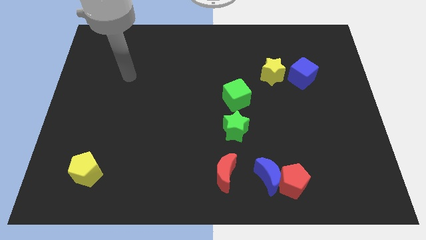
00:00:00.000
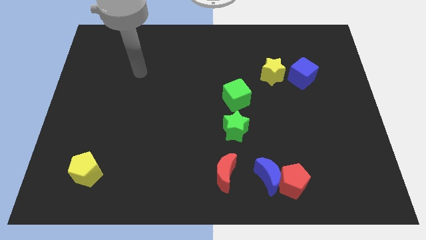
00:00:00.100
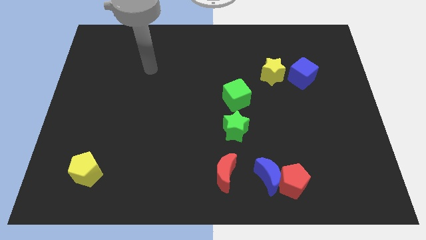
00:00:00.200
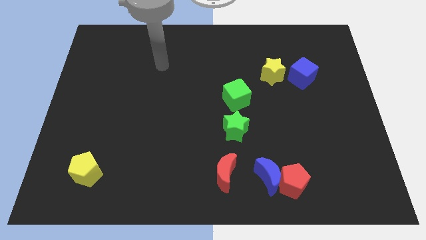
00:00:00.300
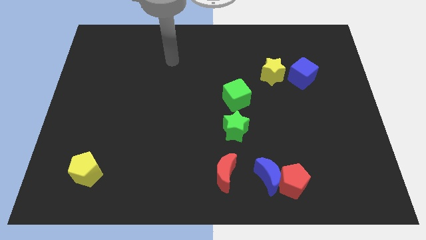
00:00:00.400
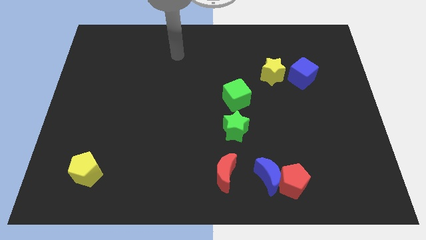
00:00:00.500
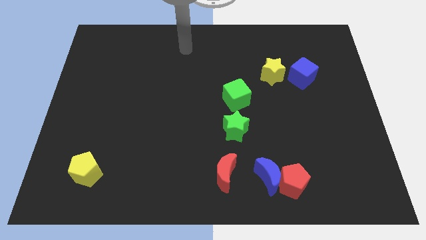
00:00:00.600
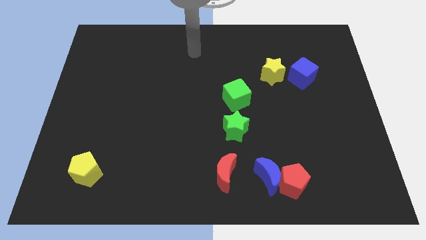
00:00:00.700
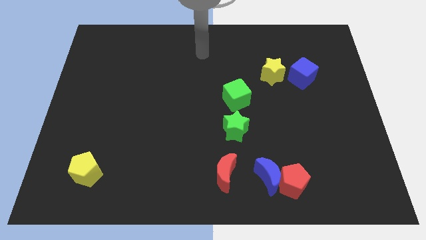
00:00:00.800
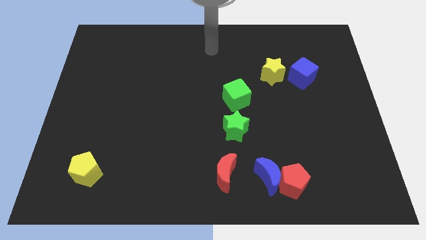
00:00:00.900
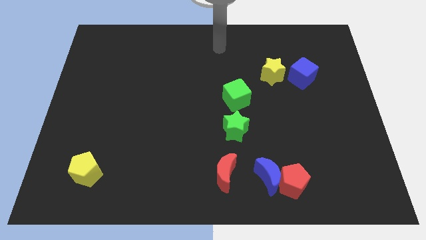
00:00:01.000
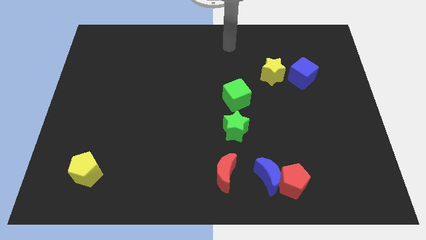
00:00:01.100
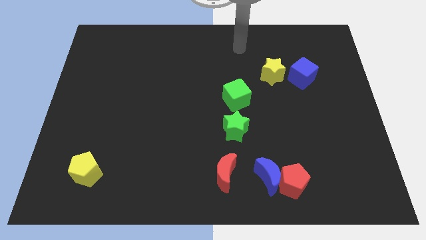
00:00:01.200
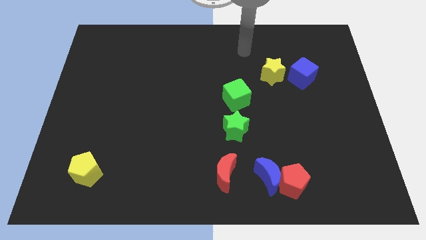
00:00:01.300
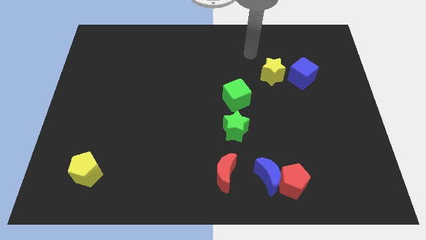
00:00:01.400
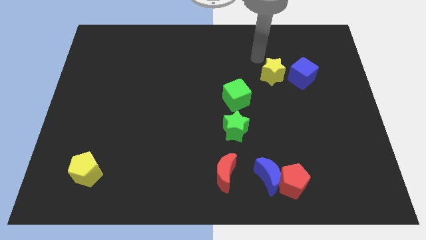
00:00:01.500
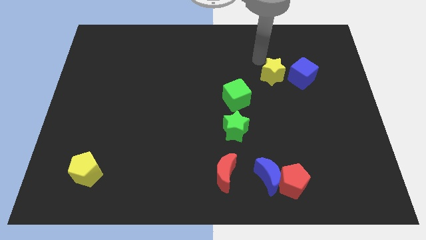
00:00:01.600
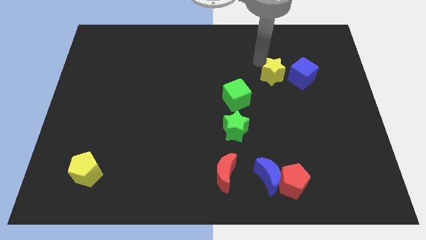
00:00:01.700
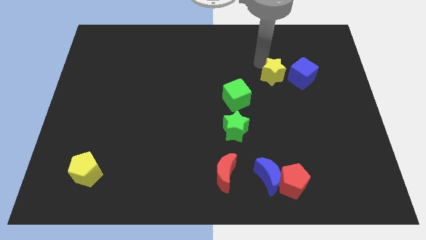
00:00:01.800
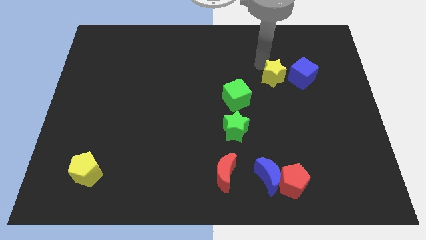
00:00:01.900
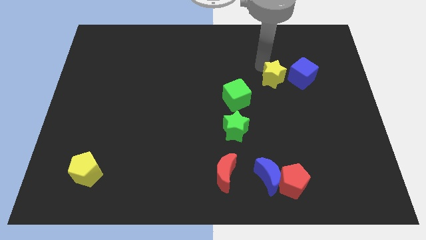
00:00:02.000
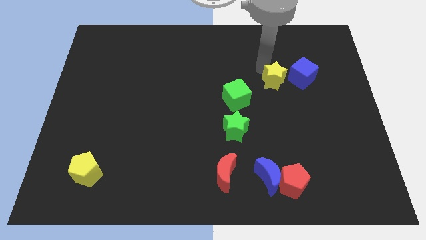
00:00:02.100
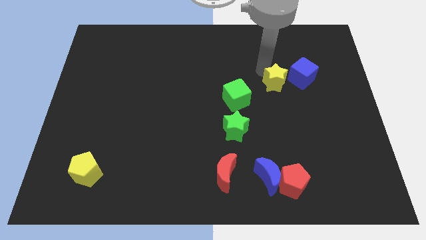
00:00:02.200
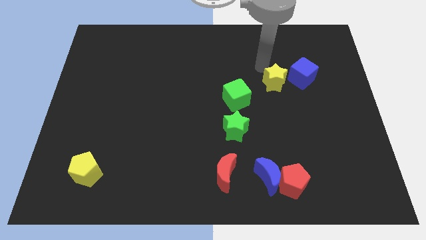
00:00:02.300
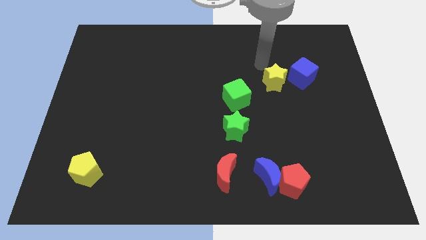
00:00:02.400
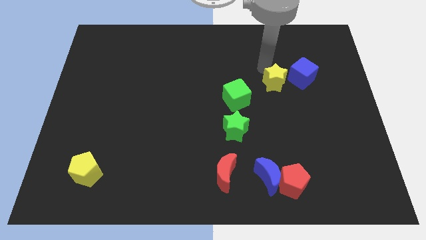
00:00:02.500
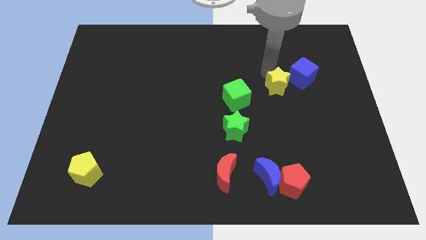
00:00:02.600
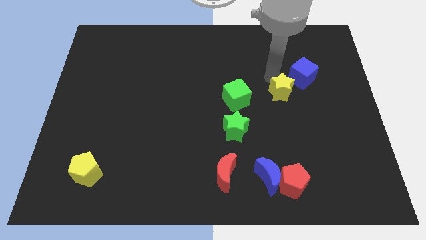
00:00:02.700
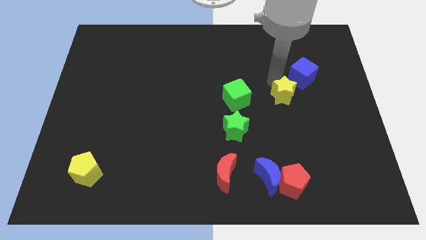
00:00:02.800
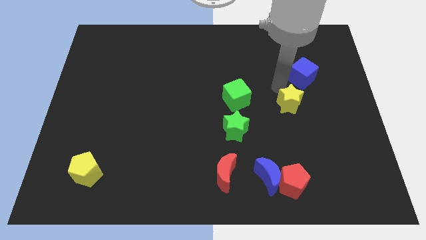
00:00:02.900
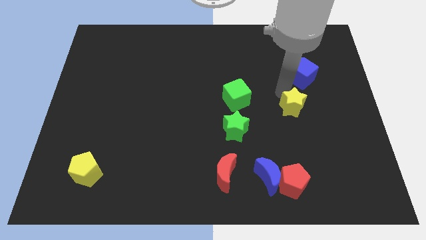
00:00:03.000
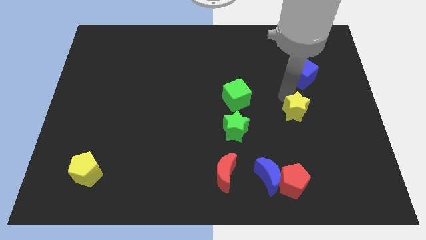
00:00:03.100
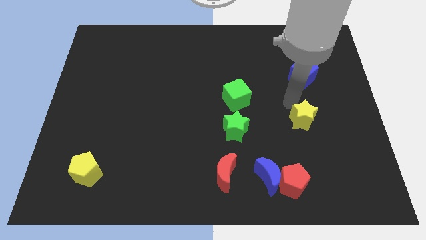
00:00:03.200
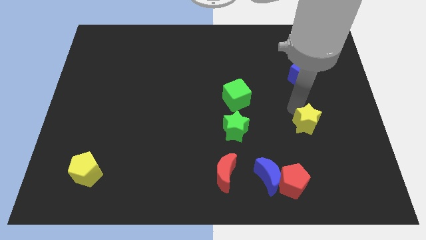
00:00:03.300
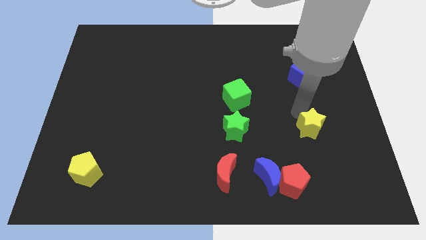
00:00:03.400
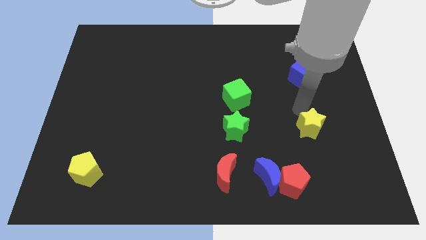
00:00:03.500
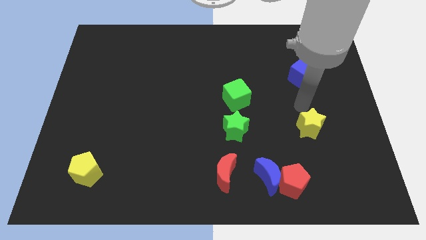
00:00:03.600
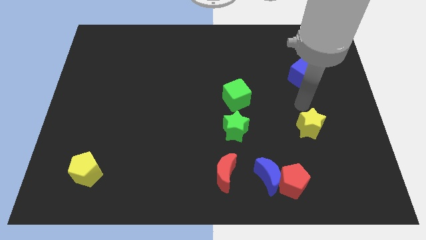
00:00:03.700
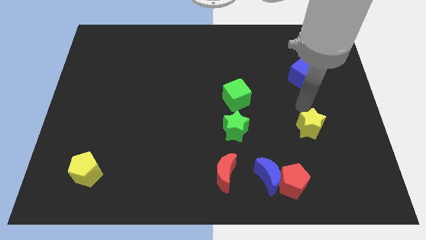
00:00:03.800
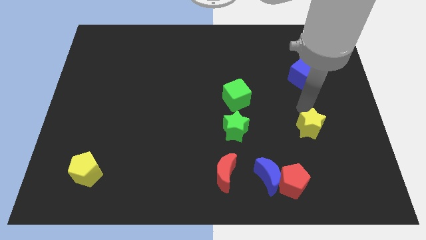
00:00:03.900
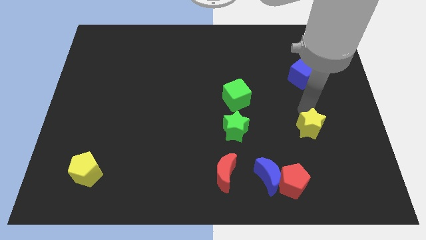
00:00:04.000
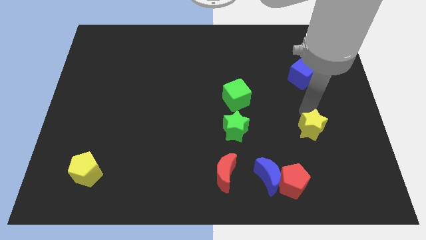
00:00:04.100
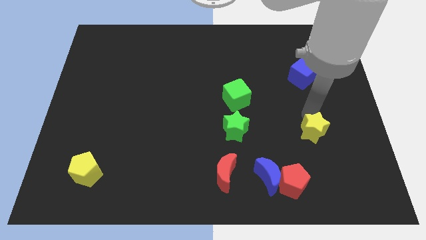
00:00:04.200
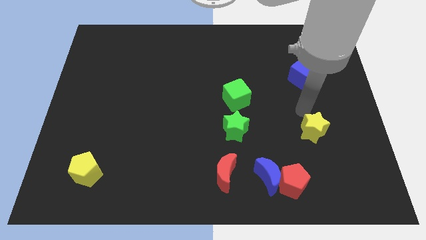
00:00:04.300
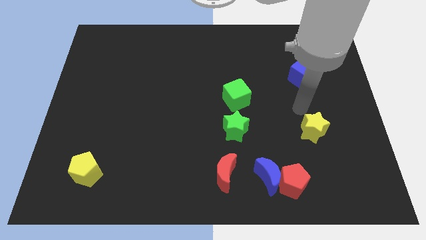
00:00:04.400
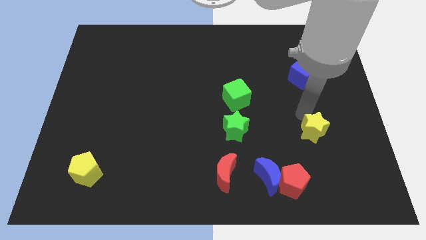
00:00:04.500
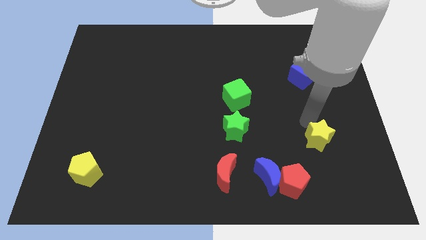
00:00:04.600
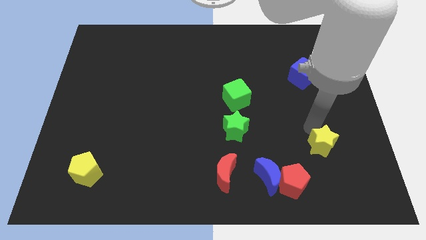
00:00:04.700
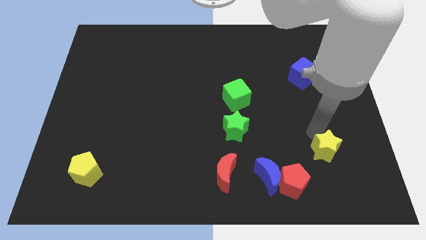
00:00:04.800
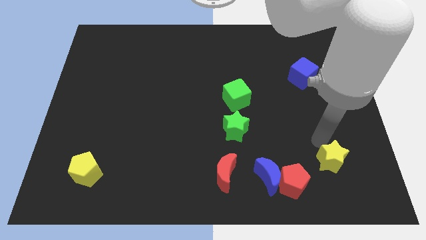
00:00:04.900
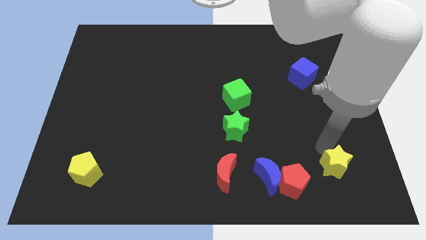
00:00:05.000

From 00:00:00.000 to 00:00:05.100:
put the yellow star to the right of the red pentagon
